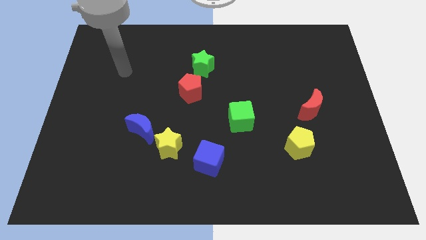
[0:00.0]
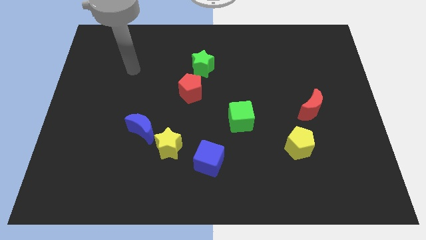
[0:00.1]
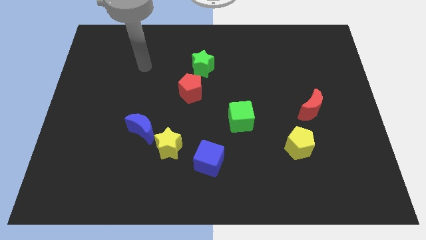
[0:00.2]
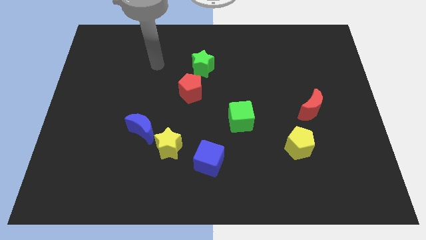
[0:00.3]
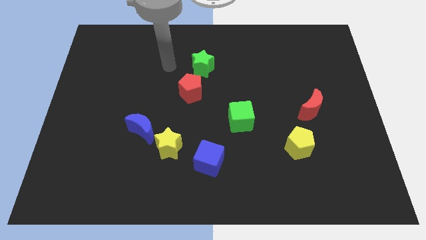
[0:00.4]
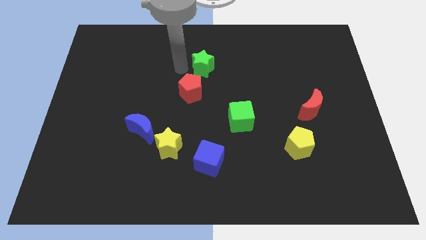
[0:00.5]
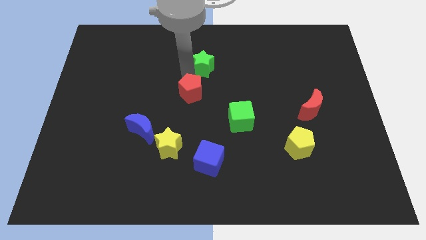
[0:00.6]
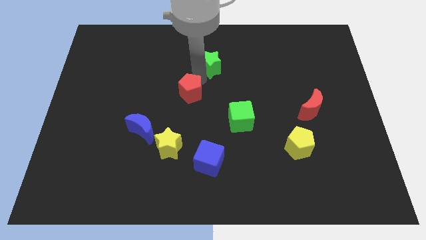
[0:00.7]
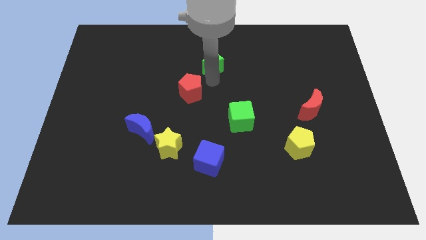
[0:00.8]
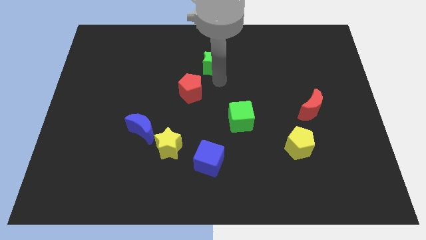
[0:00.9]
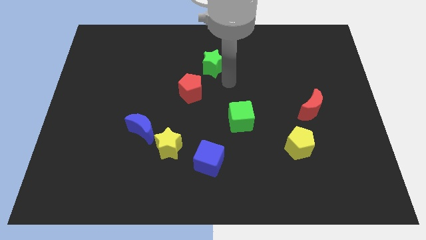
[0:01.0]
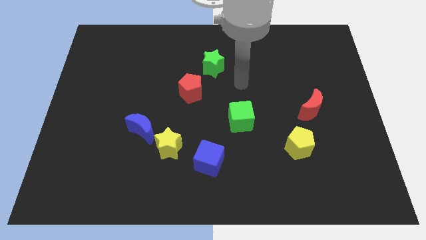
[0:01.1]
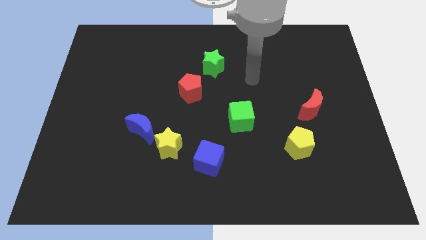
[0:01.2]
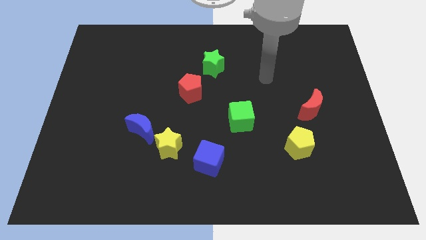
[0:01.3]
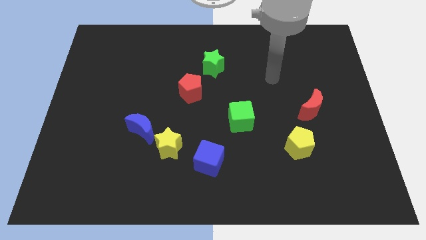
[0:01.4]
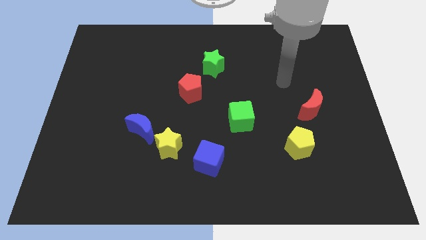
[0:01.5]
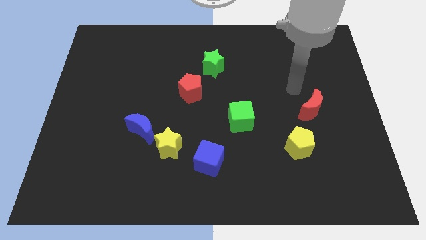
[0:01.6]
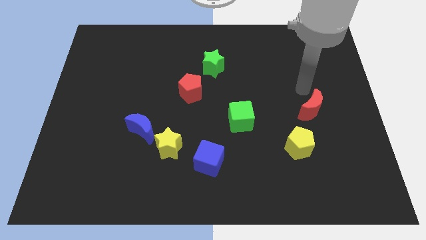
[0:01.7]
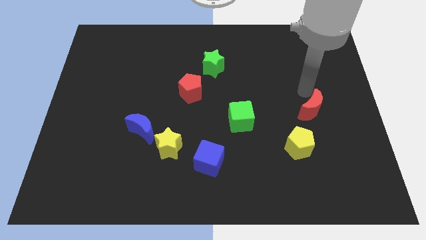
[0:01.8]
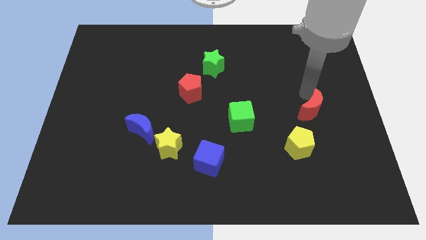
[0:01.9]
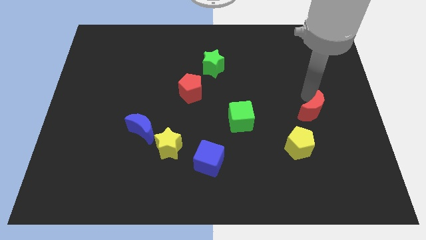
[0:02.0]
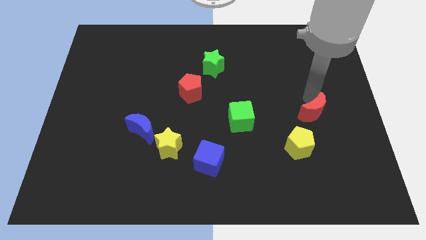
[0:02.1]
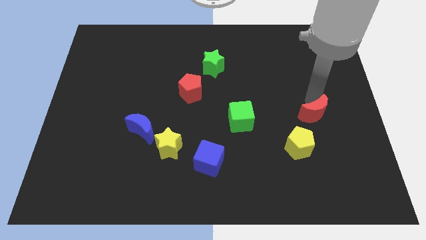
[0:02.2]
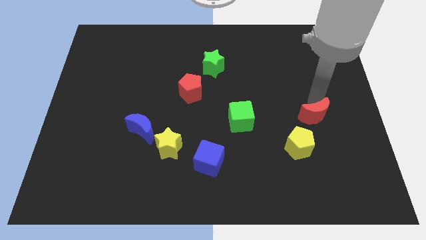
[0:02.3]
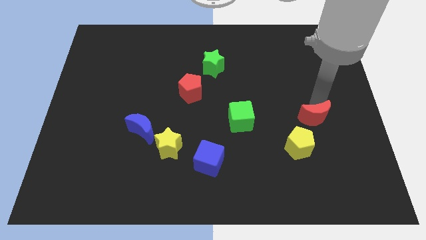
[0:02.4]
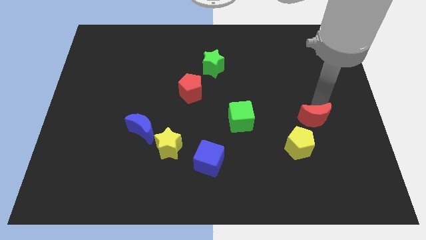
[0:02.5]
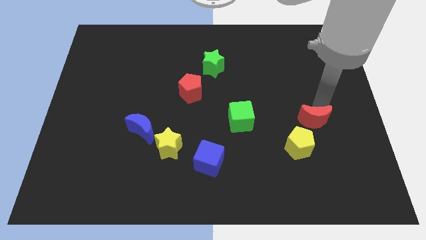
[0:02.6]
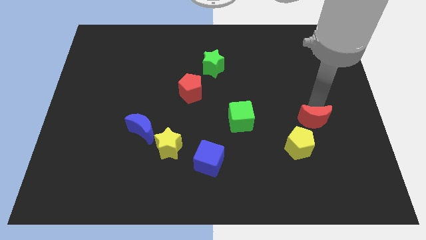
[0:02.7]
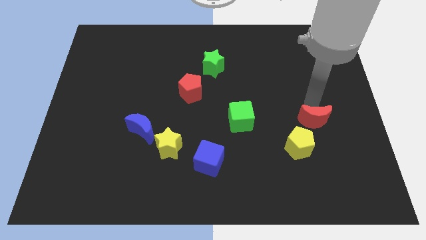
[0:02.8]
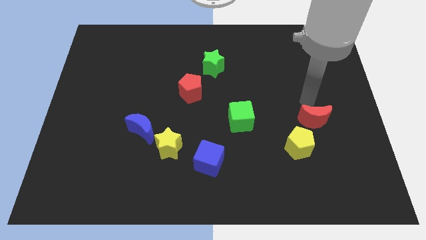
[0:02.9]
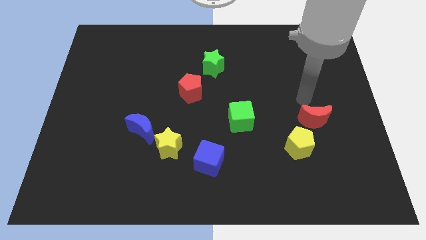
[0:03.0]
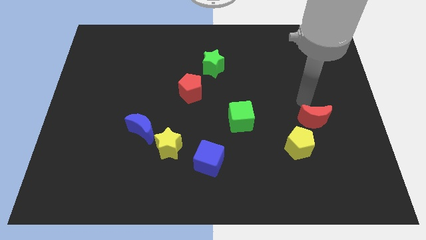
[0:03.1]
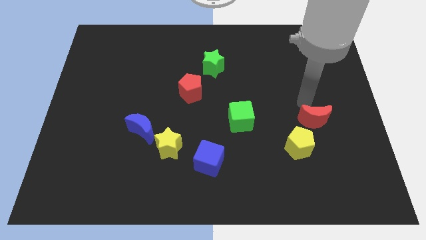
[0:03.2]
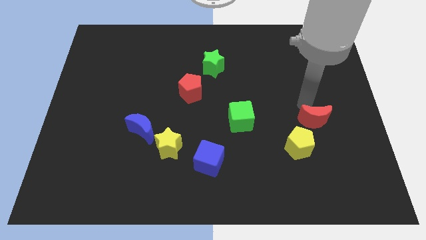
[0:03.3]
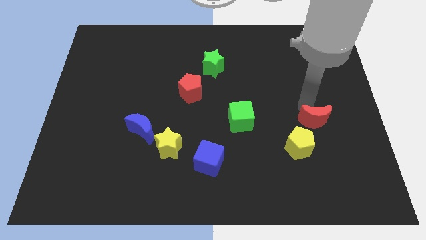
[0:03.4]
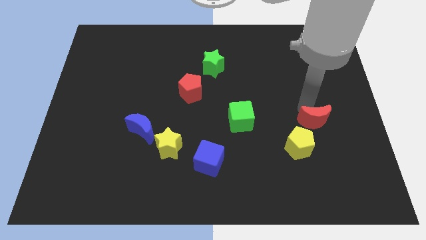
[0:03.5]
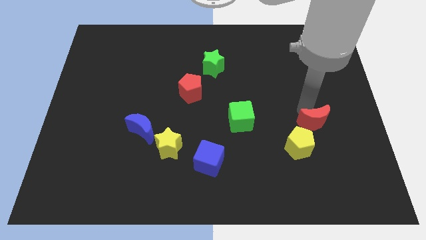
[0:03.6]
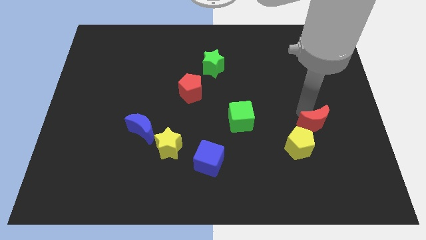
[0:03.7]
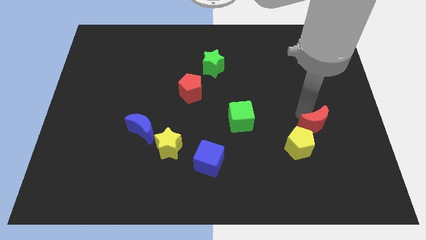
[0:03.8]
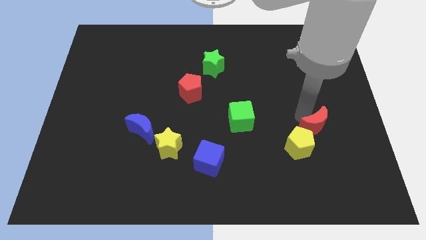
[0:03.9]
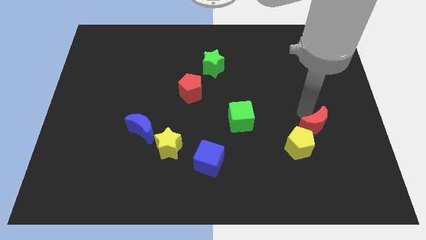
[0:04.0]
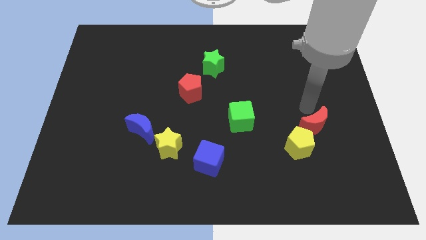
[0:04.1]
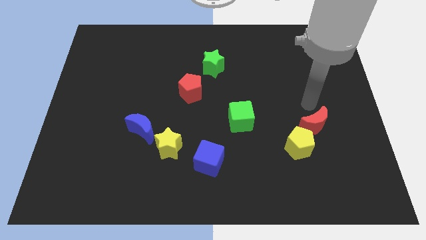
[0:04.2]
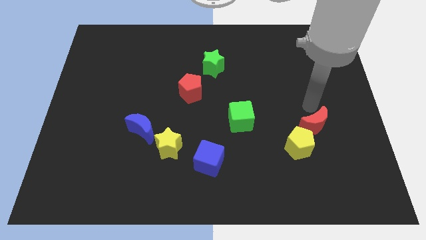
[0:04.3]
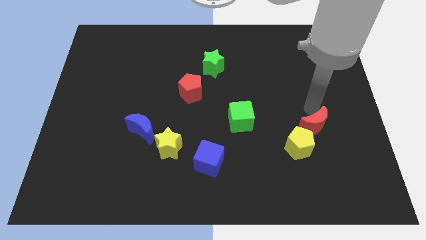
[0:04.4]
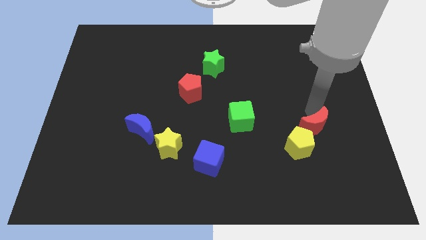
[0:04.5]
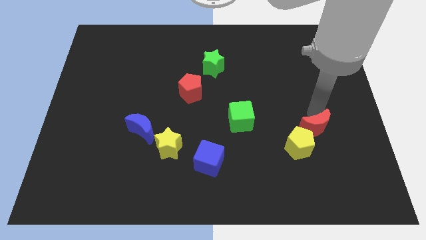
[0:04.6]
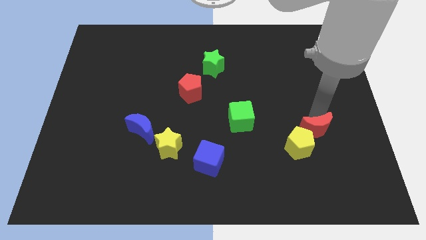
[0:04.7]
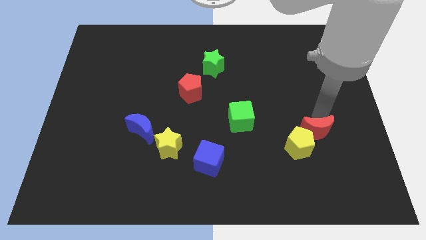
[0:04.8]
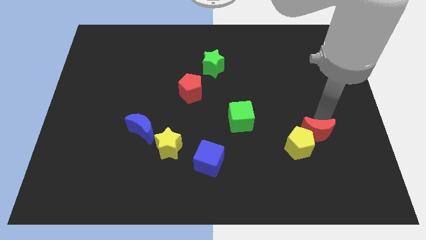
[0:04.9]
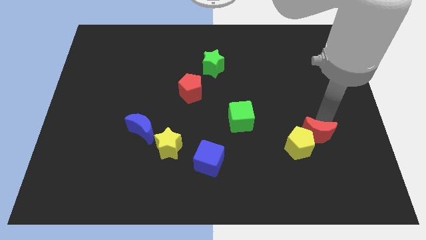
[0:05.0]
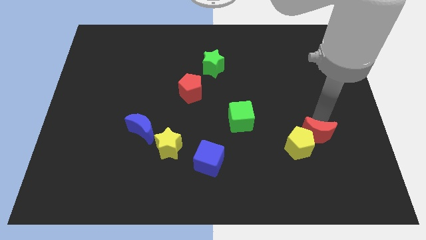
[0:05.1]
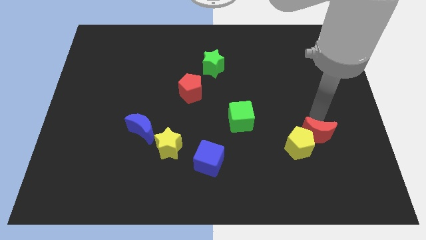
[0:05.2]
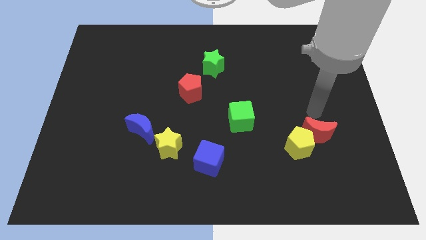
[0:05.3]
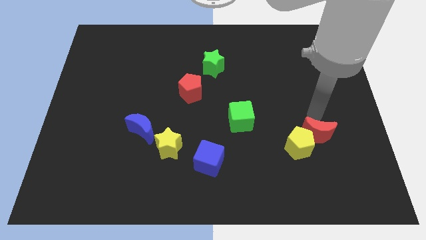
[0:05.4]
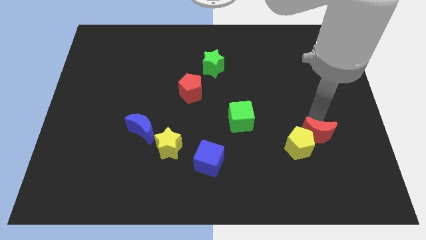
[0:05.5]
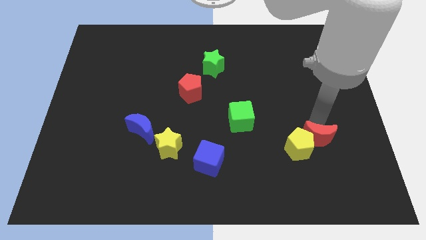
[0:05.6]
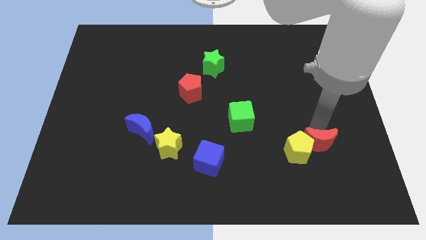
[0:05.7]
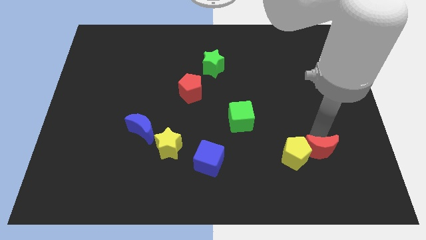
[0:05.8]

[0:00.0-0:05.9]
push the red moon to the bottom right side of the yellow pentagon

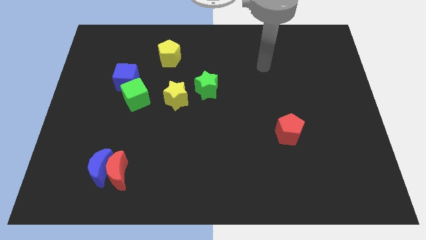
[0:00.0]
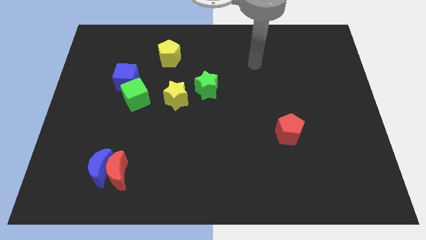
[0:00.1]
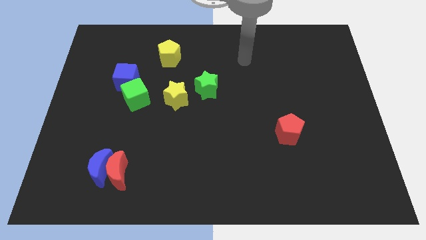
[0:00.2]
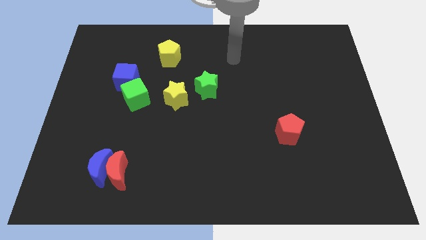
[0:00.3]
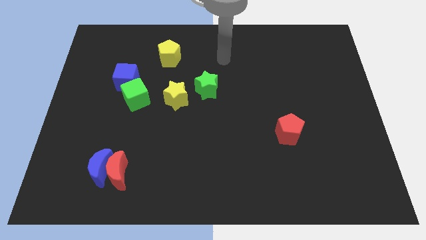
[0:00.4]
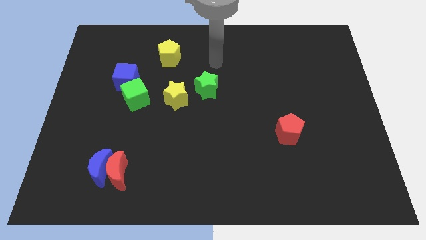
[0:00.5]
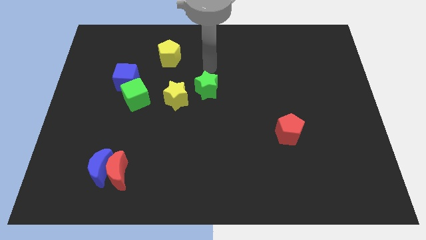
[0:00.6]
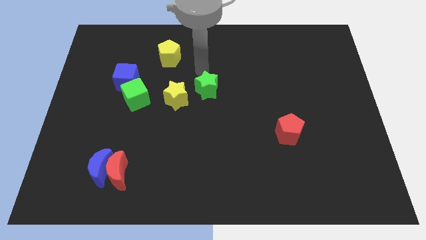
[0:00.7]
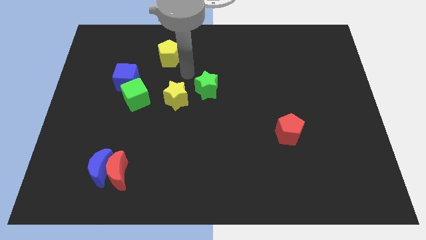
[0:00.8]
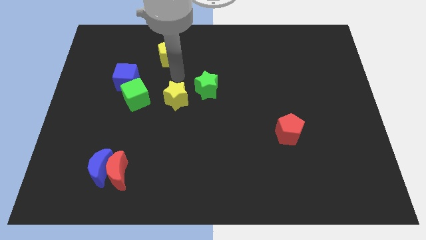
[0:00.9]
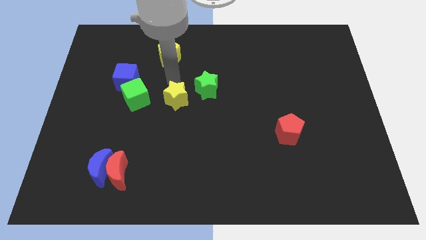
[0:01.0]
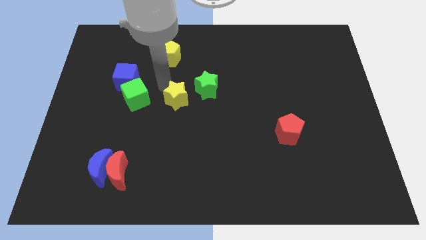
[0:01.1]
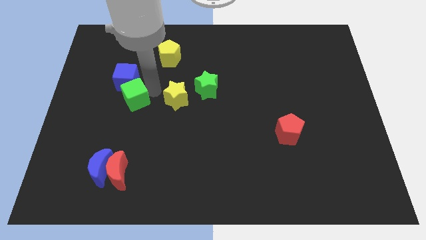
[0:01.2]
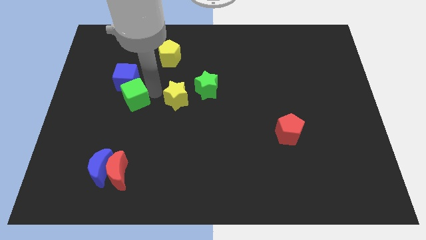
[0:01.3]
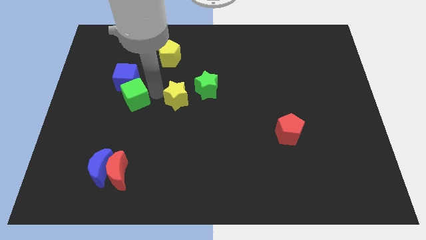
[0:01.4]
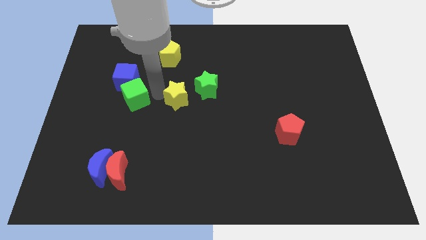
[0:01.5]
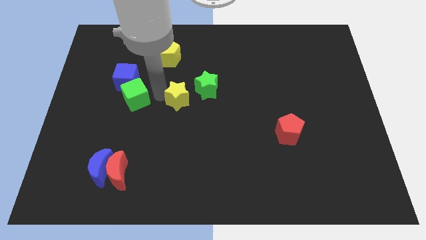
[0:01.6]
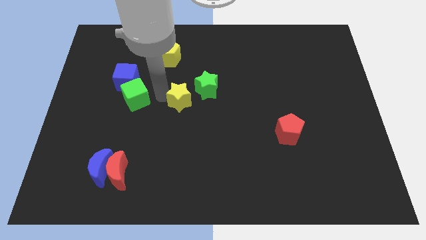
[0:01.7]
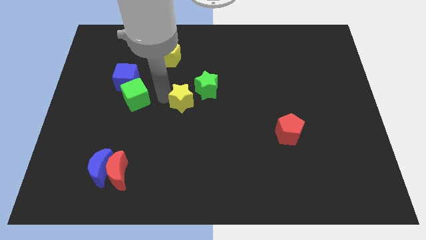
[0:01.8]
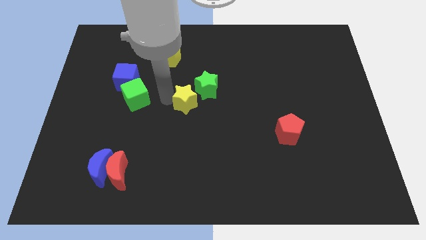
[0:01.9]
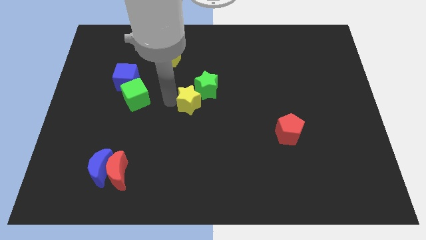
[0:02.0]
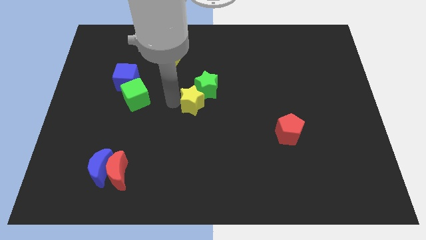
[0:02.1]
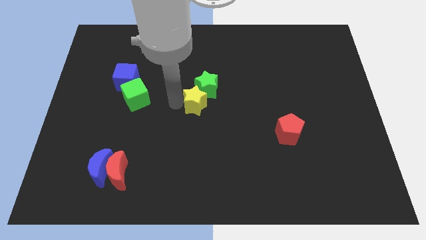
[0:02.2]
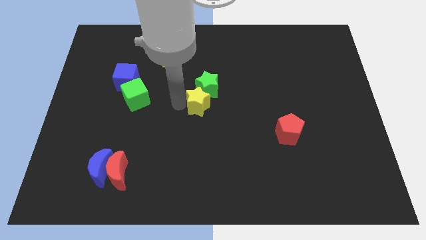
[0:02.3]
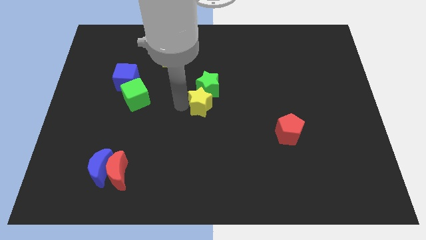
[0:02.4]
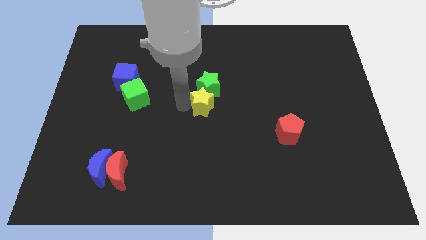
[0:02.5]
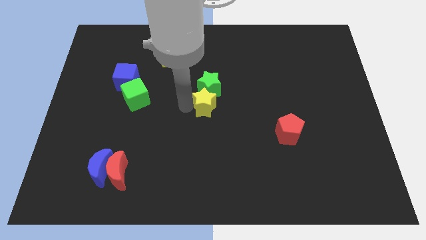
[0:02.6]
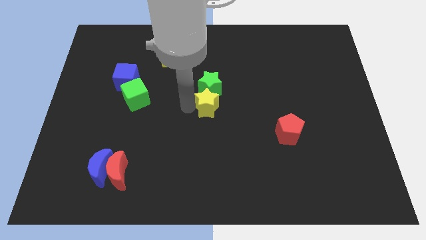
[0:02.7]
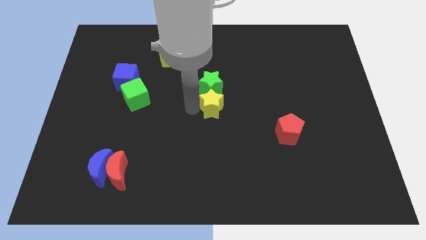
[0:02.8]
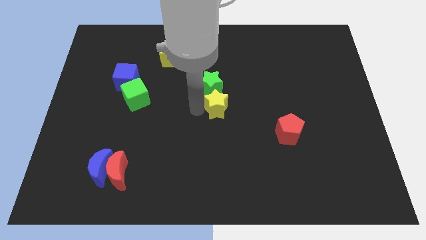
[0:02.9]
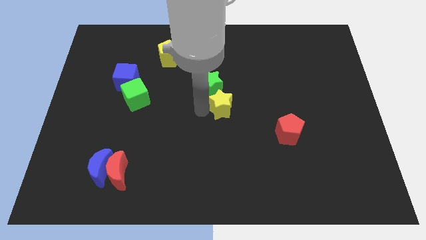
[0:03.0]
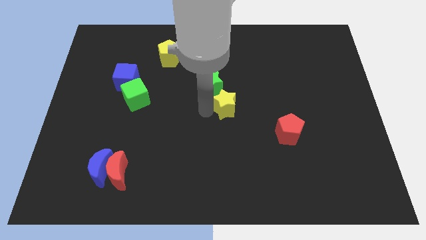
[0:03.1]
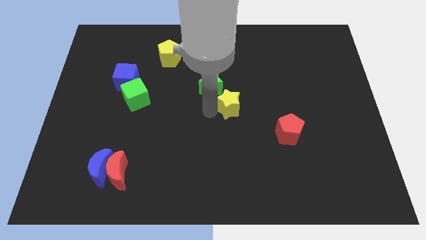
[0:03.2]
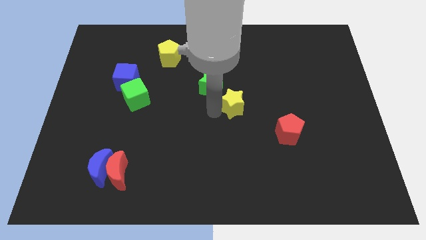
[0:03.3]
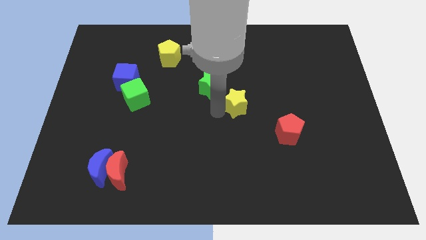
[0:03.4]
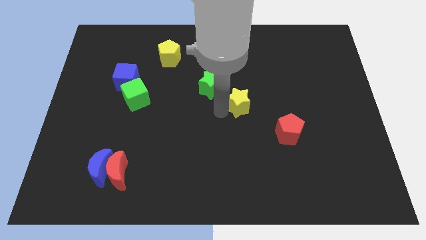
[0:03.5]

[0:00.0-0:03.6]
move the yellow star right of the green star
